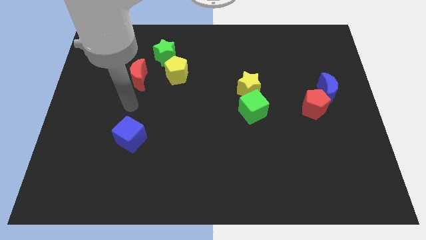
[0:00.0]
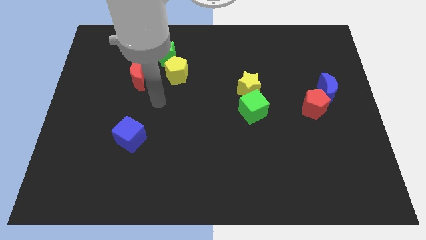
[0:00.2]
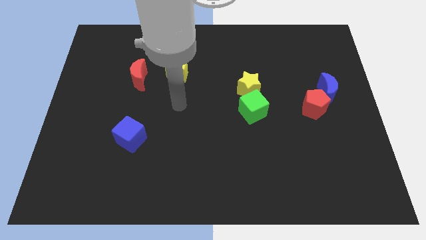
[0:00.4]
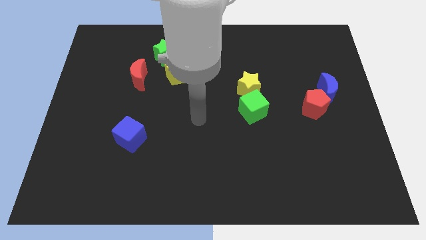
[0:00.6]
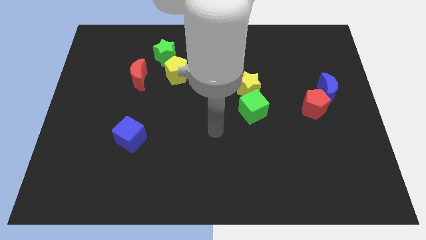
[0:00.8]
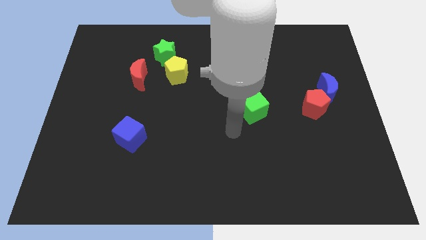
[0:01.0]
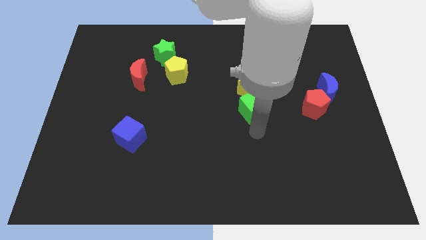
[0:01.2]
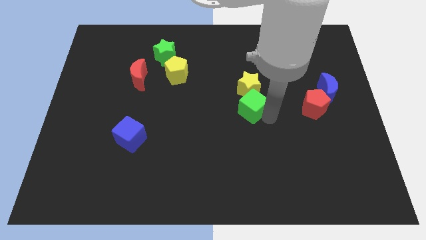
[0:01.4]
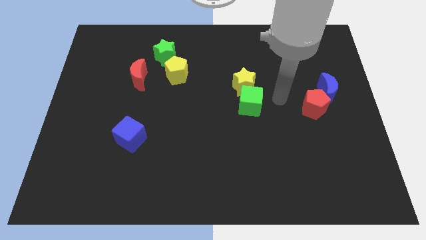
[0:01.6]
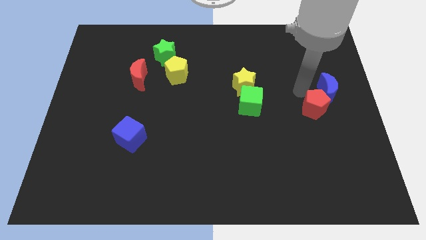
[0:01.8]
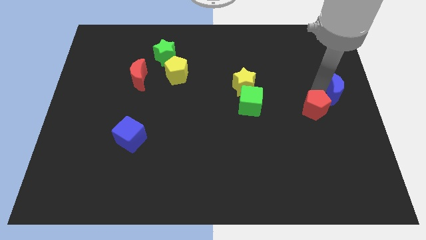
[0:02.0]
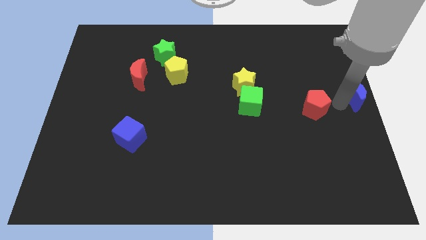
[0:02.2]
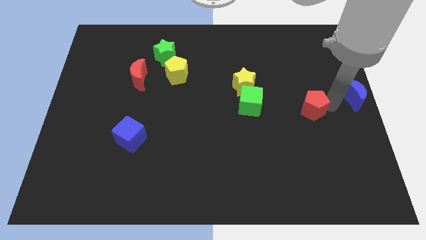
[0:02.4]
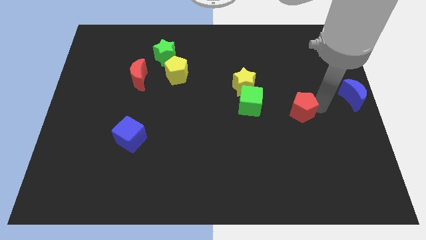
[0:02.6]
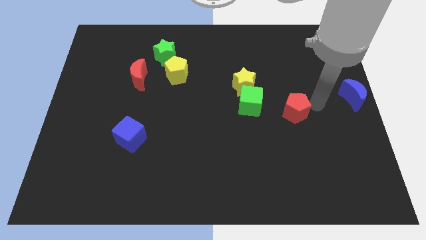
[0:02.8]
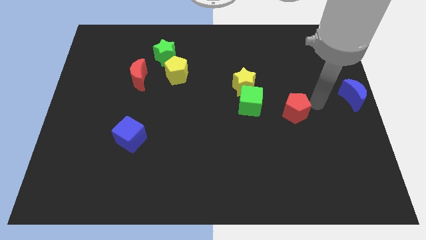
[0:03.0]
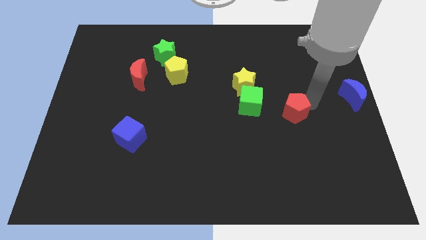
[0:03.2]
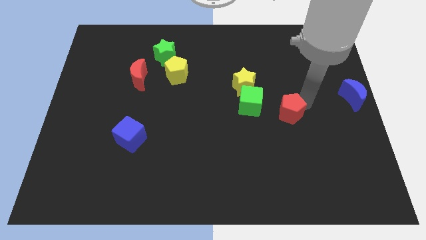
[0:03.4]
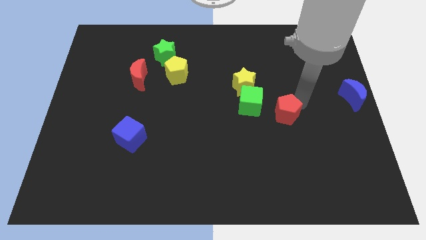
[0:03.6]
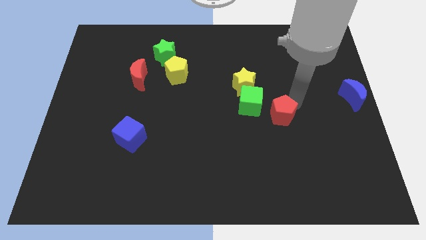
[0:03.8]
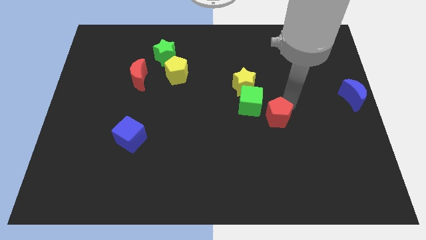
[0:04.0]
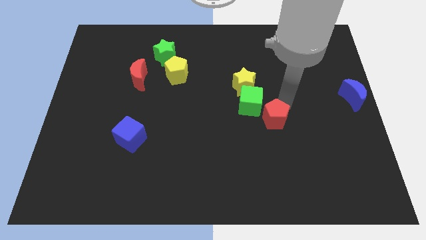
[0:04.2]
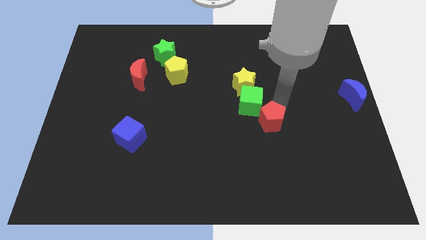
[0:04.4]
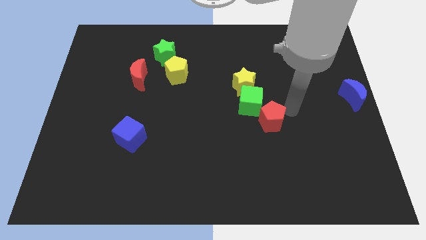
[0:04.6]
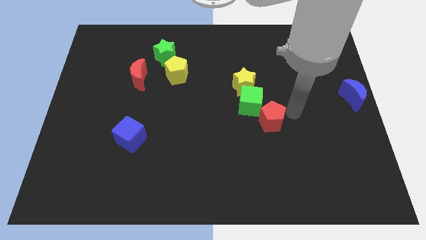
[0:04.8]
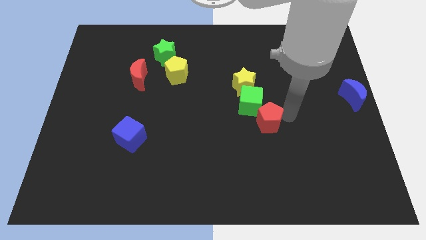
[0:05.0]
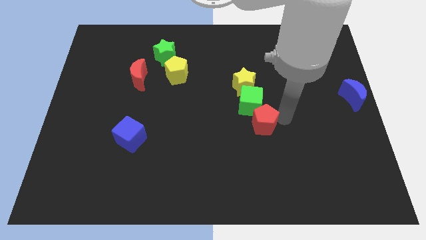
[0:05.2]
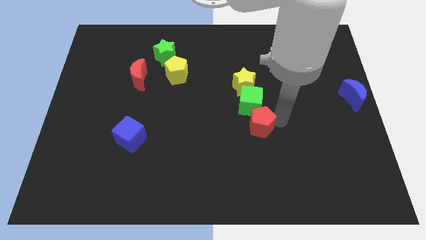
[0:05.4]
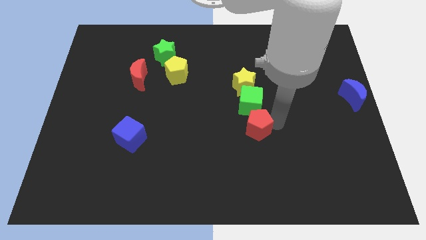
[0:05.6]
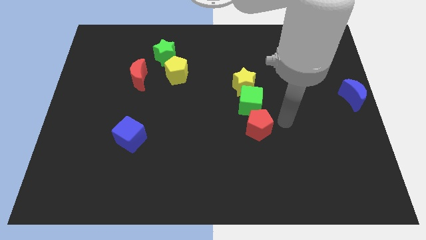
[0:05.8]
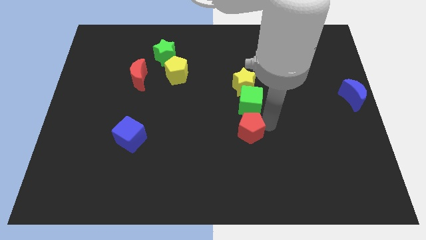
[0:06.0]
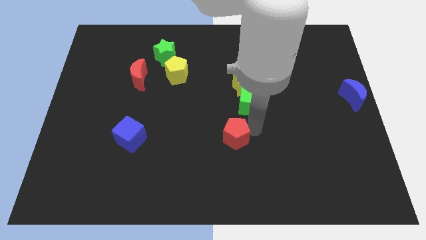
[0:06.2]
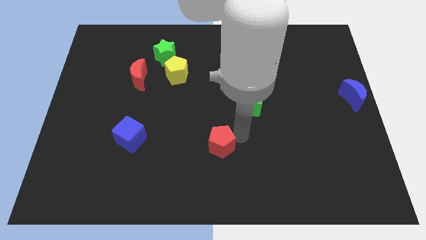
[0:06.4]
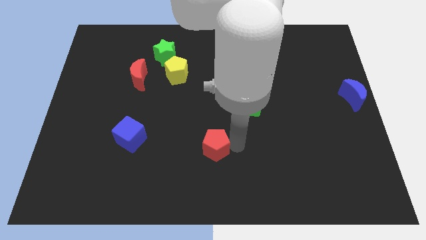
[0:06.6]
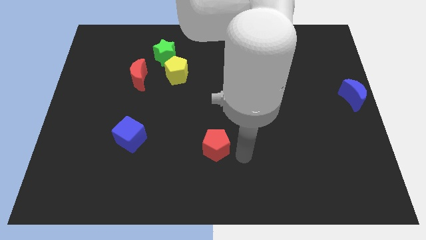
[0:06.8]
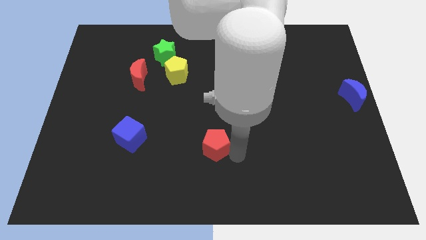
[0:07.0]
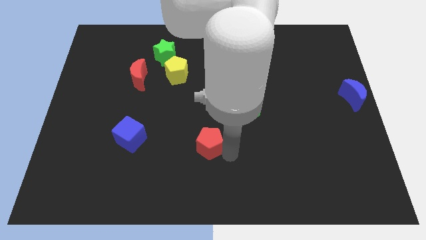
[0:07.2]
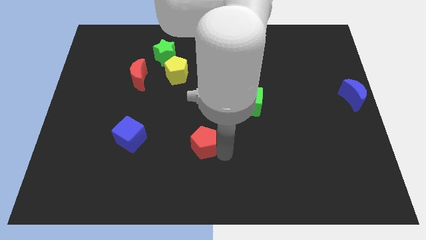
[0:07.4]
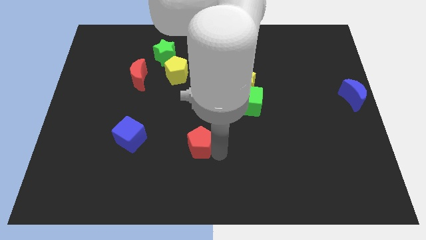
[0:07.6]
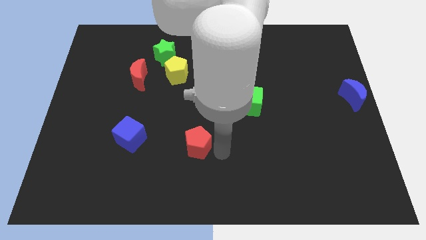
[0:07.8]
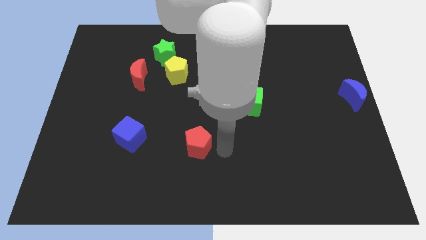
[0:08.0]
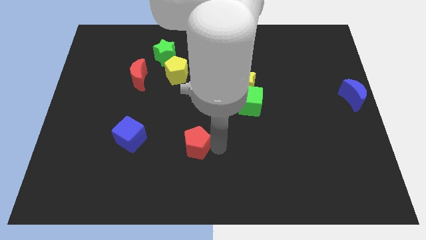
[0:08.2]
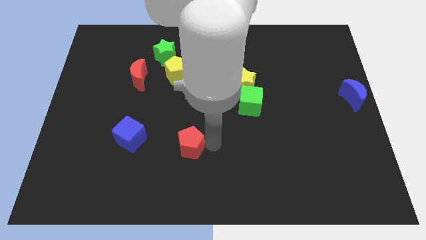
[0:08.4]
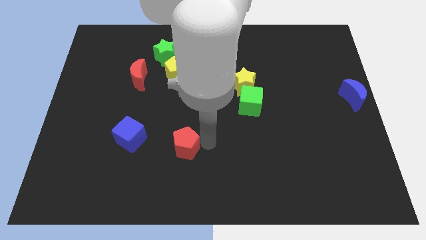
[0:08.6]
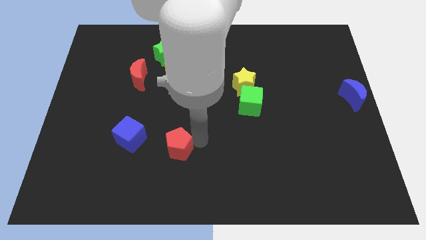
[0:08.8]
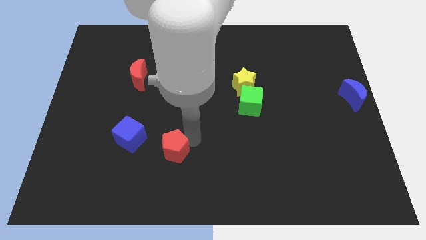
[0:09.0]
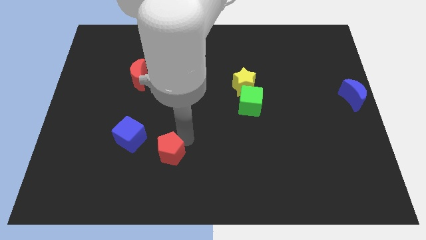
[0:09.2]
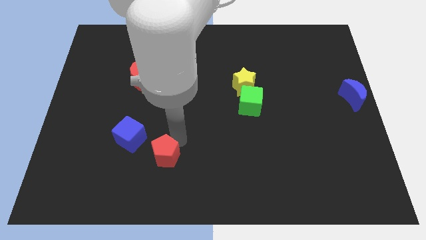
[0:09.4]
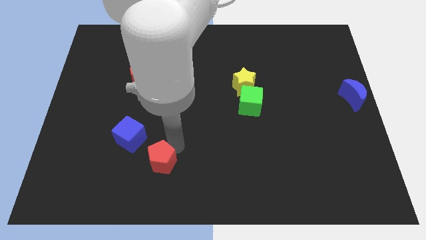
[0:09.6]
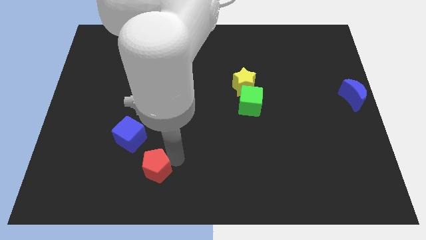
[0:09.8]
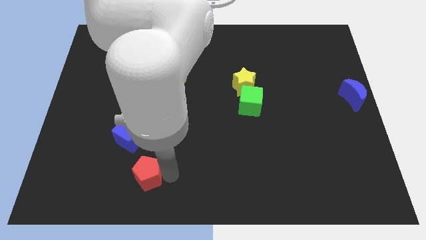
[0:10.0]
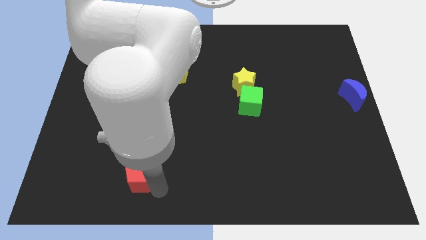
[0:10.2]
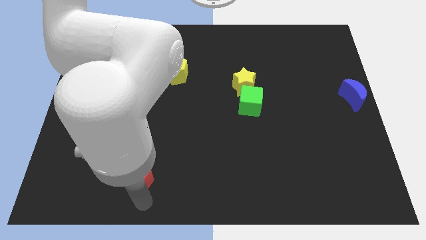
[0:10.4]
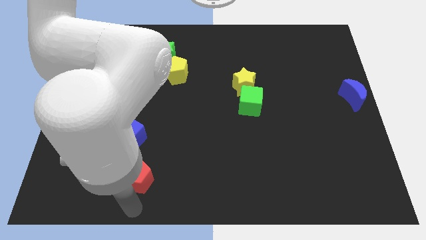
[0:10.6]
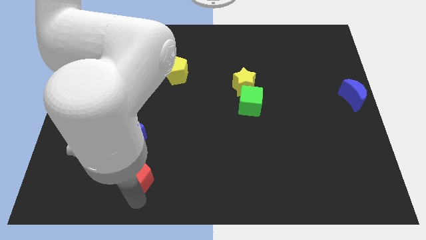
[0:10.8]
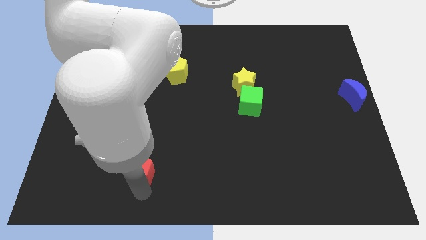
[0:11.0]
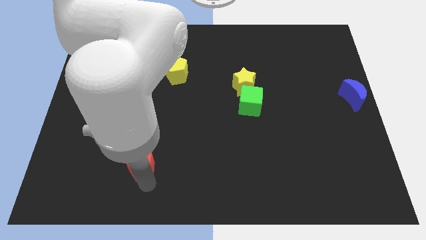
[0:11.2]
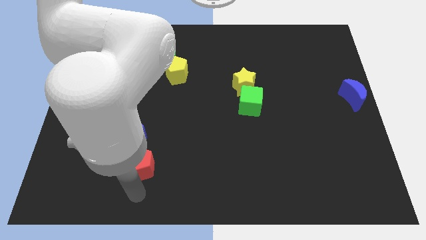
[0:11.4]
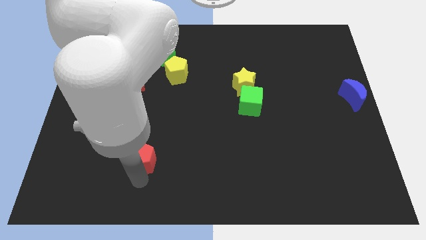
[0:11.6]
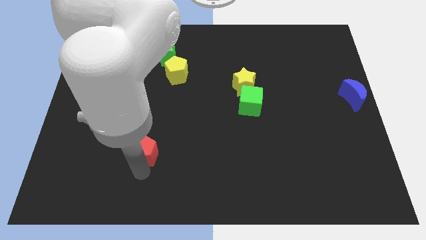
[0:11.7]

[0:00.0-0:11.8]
push the red pentagon close to the blue cube

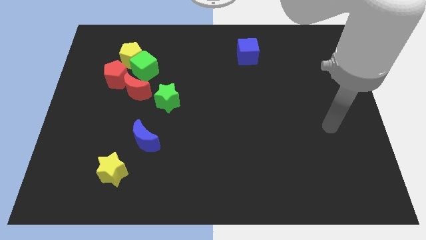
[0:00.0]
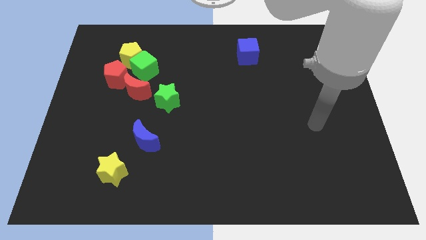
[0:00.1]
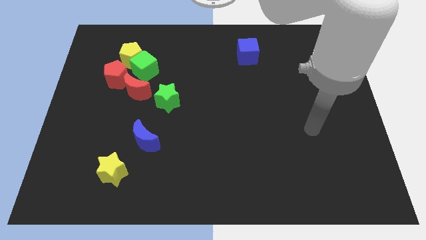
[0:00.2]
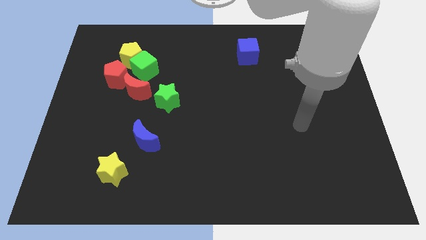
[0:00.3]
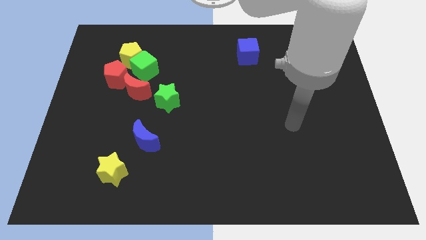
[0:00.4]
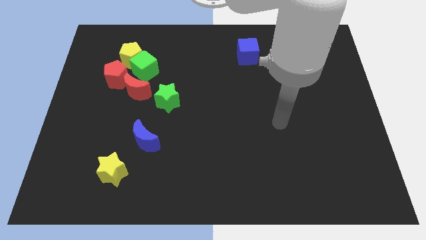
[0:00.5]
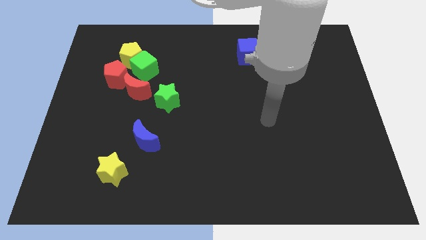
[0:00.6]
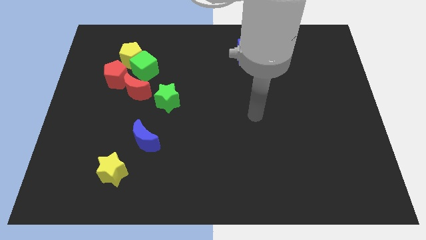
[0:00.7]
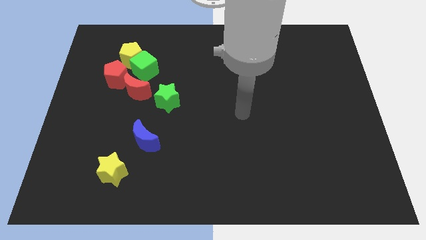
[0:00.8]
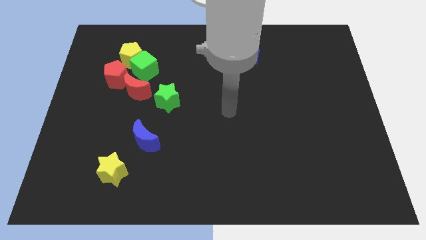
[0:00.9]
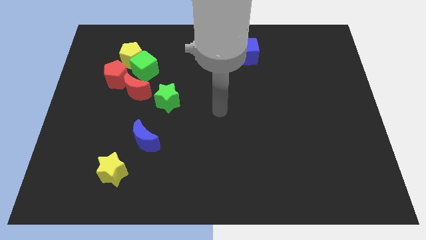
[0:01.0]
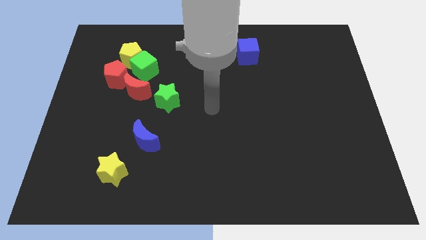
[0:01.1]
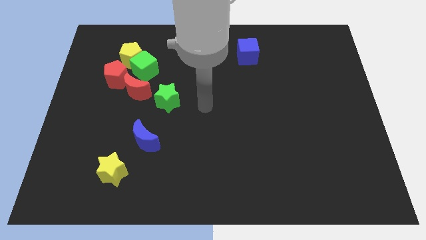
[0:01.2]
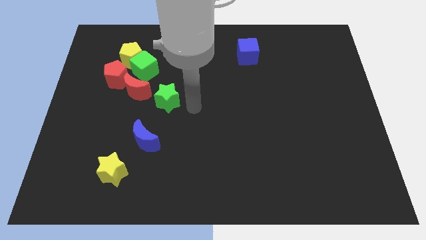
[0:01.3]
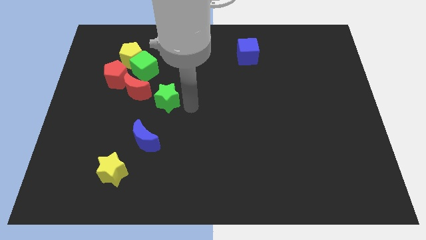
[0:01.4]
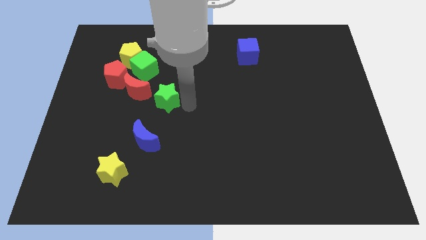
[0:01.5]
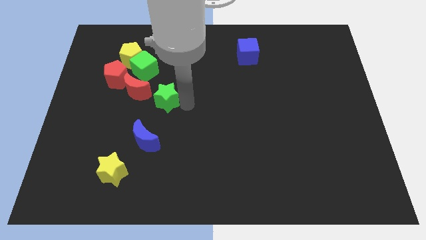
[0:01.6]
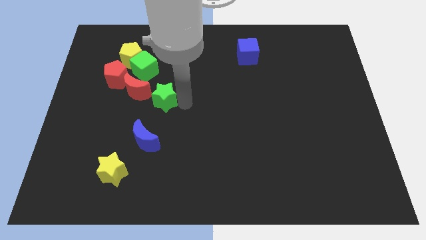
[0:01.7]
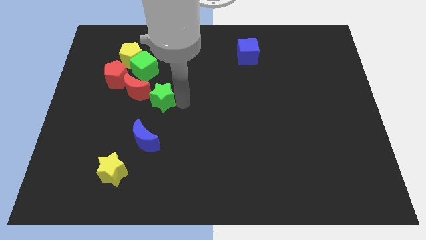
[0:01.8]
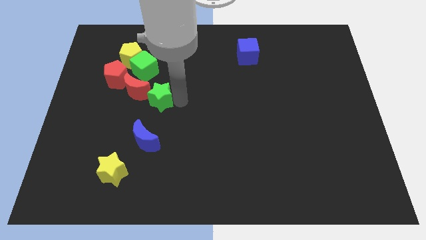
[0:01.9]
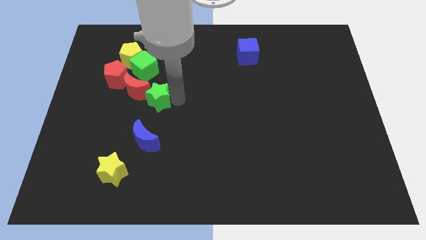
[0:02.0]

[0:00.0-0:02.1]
put the green star close to the red moon
